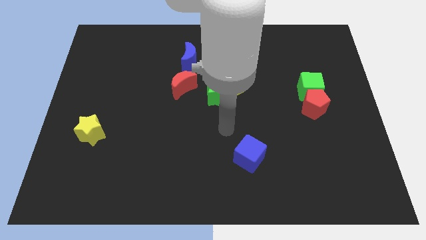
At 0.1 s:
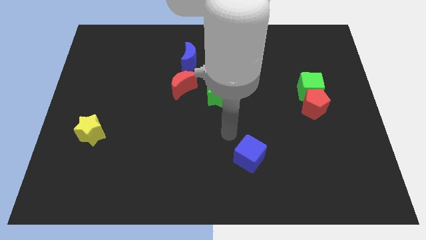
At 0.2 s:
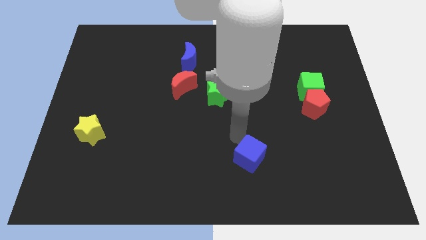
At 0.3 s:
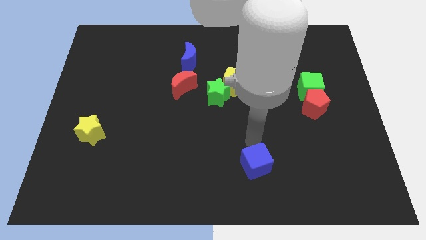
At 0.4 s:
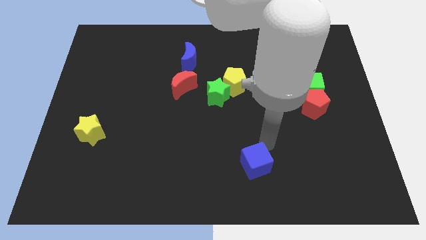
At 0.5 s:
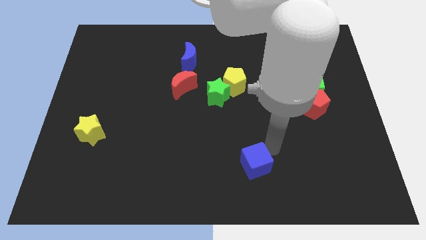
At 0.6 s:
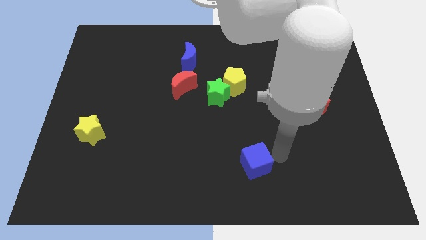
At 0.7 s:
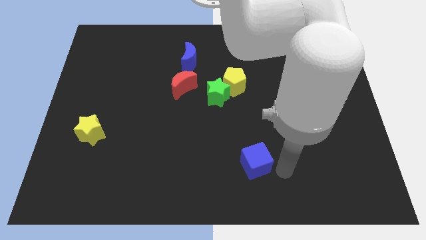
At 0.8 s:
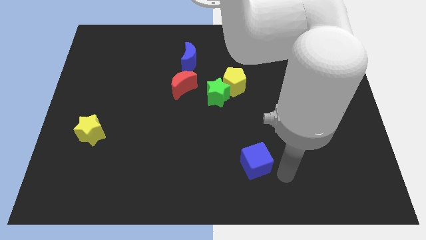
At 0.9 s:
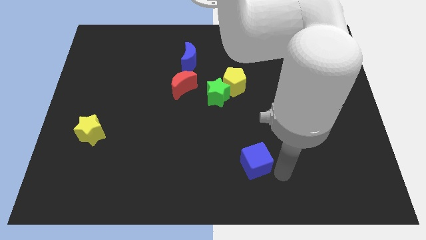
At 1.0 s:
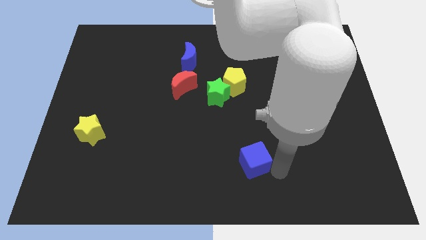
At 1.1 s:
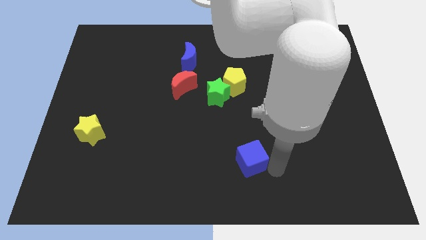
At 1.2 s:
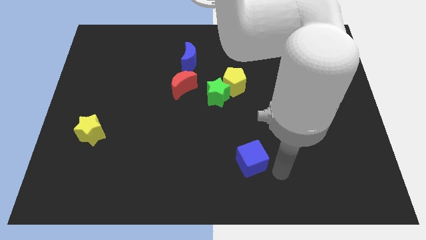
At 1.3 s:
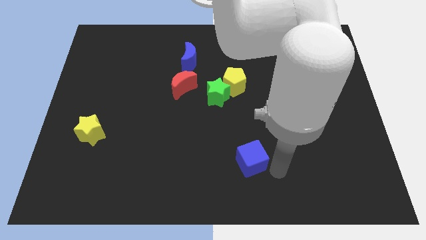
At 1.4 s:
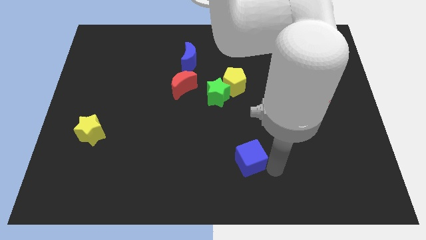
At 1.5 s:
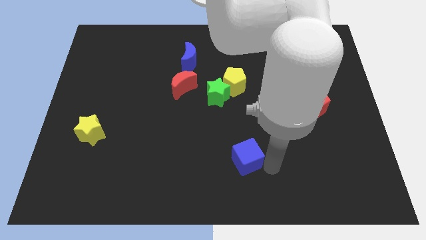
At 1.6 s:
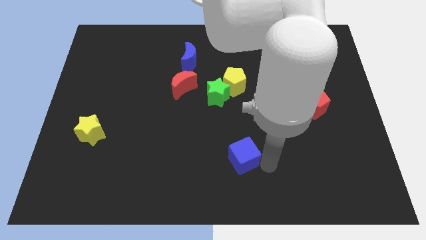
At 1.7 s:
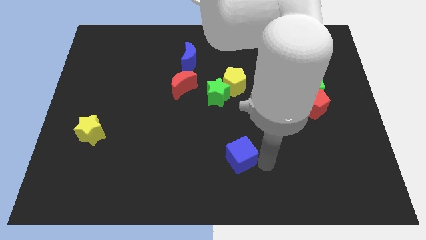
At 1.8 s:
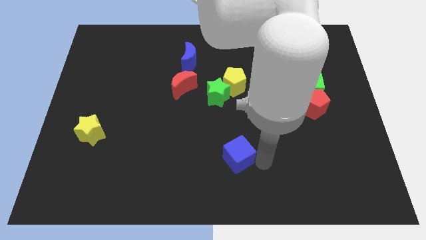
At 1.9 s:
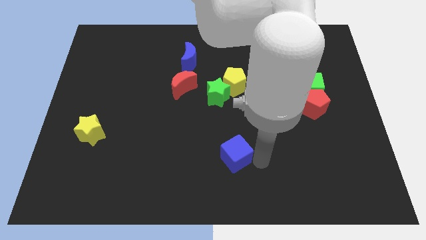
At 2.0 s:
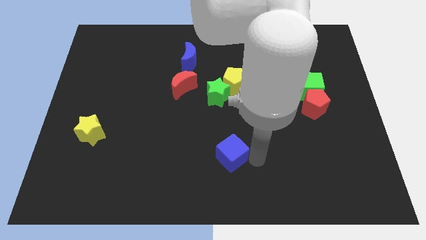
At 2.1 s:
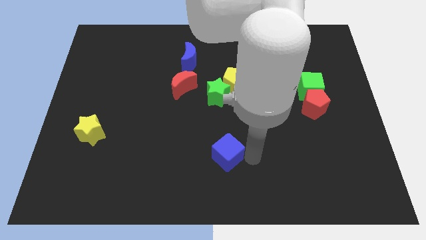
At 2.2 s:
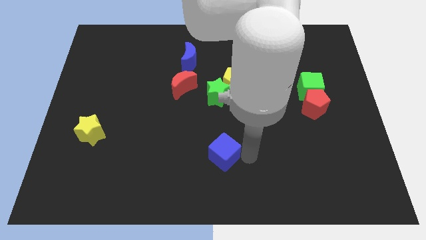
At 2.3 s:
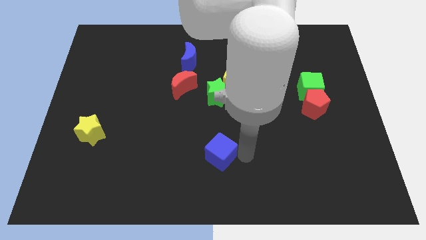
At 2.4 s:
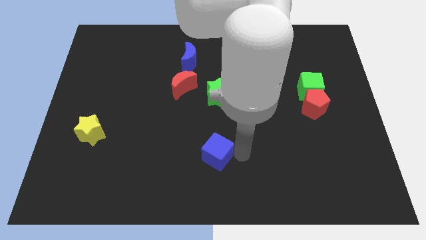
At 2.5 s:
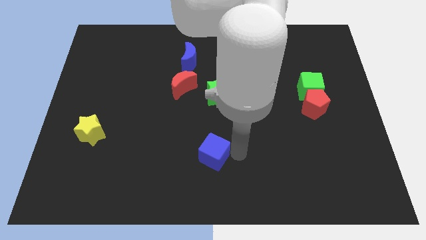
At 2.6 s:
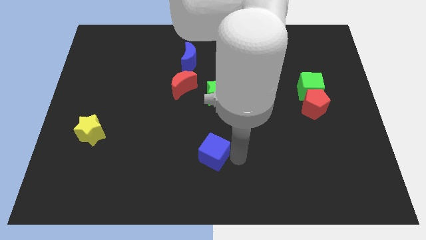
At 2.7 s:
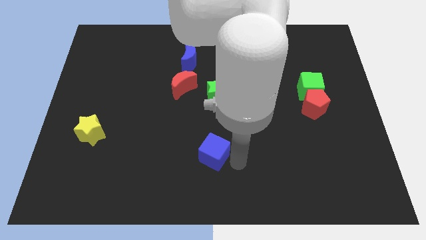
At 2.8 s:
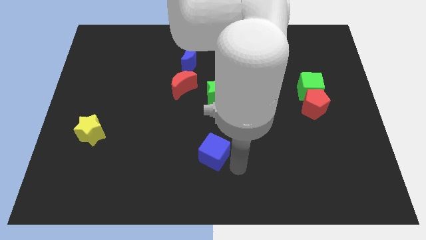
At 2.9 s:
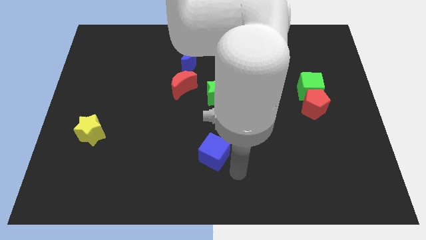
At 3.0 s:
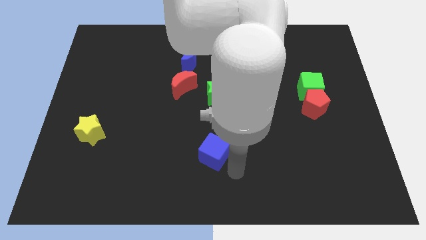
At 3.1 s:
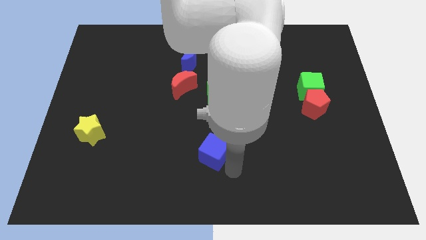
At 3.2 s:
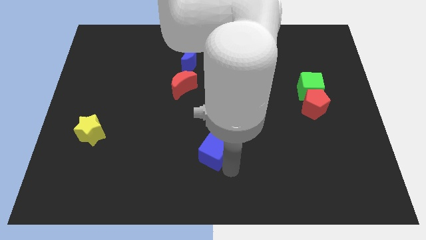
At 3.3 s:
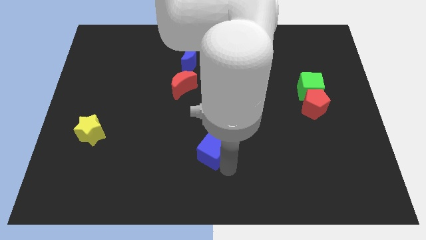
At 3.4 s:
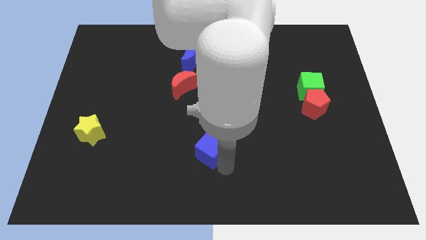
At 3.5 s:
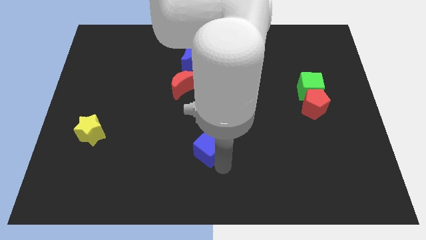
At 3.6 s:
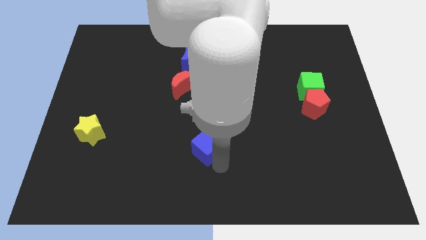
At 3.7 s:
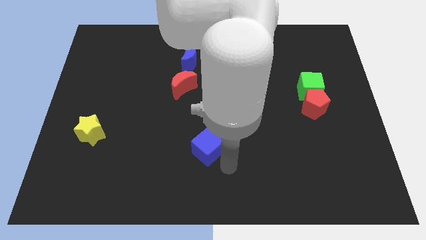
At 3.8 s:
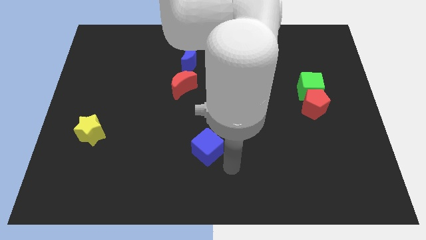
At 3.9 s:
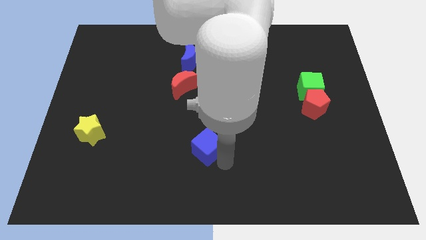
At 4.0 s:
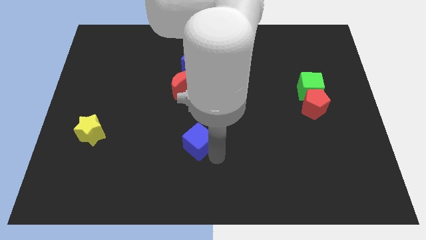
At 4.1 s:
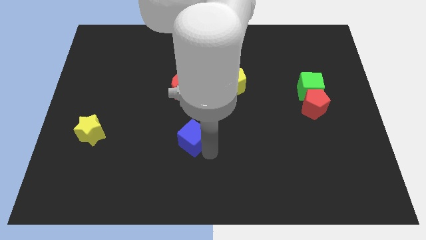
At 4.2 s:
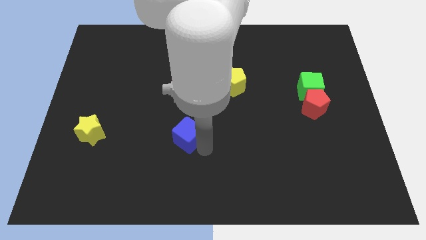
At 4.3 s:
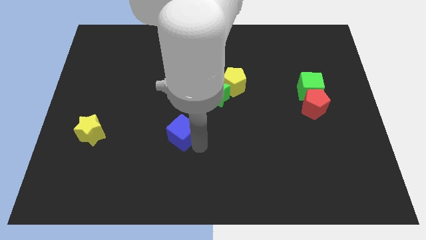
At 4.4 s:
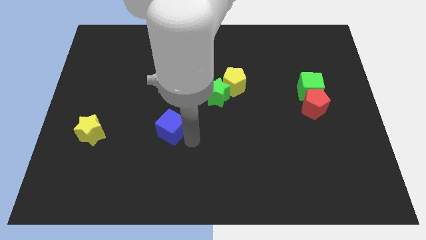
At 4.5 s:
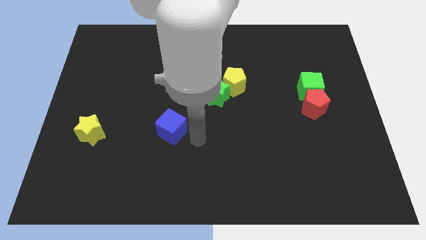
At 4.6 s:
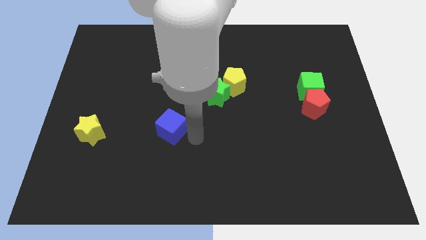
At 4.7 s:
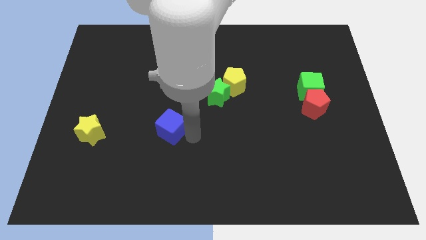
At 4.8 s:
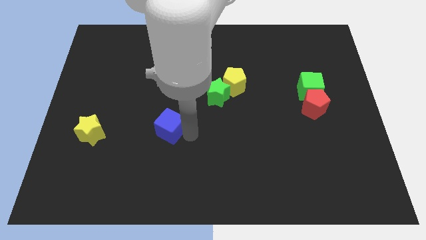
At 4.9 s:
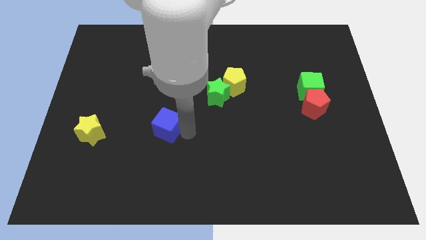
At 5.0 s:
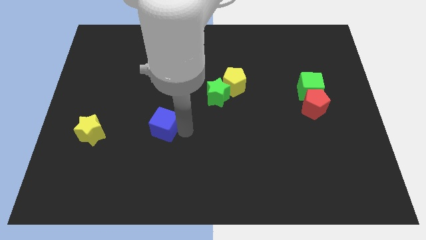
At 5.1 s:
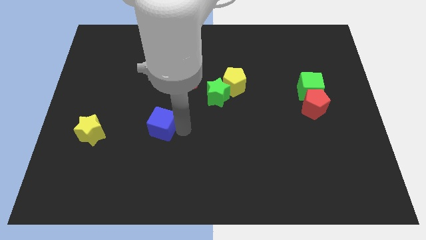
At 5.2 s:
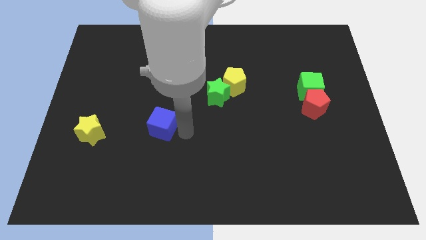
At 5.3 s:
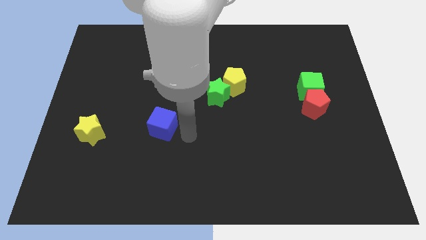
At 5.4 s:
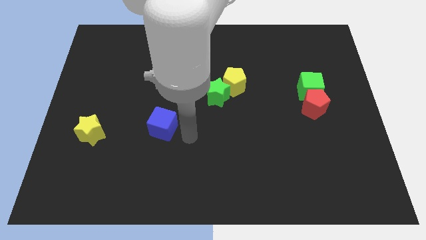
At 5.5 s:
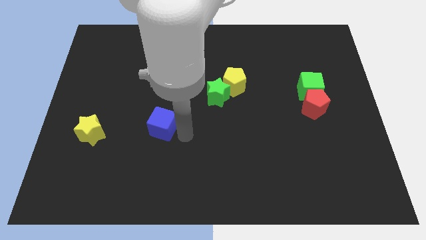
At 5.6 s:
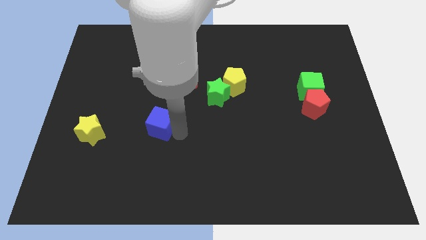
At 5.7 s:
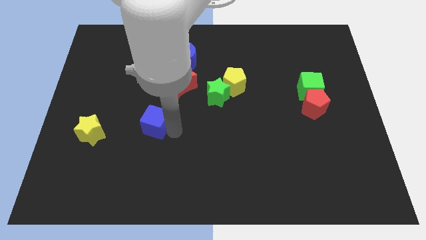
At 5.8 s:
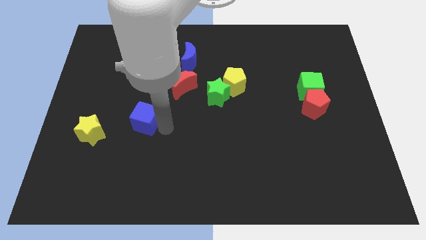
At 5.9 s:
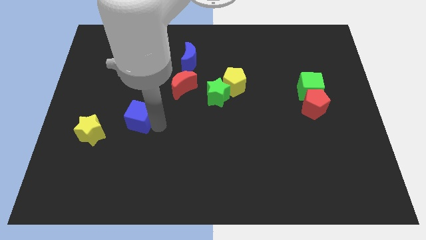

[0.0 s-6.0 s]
push the blue cube diagonally up and to the right of the yellow star

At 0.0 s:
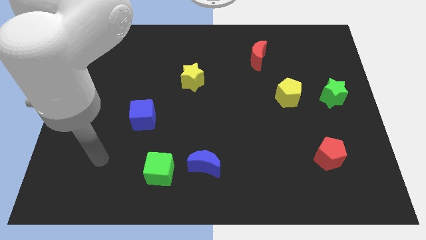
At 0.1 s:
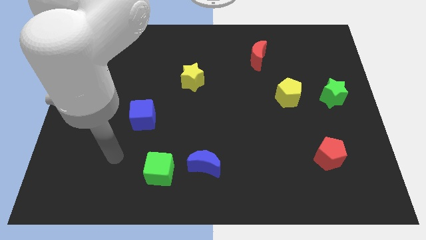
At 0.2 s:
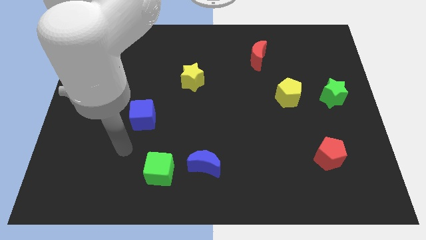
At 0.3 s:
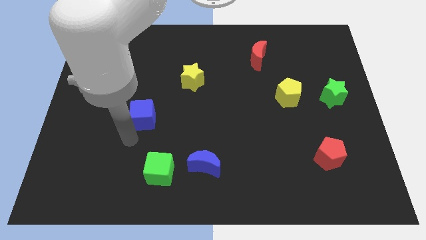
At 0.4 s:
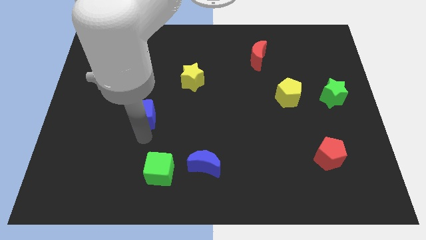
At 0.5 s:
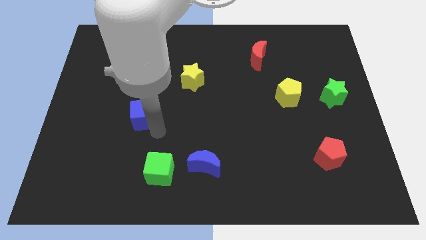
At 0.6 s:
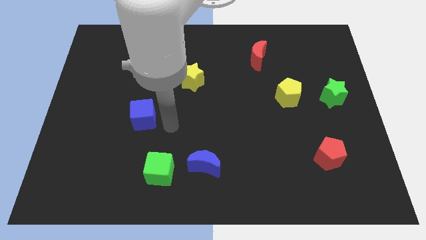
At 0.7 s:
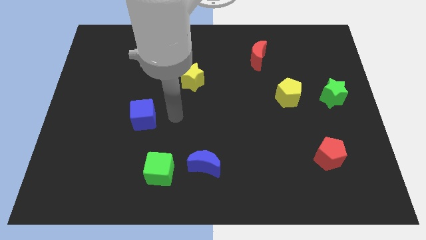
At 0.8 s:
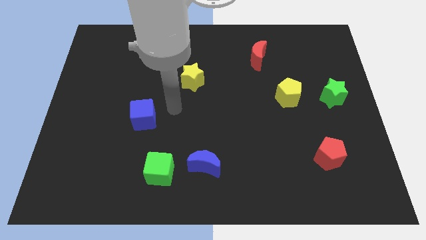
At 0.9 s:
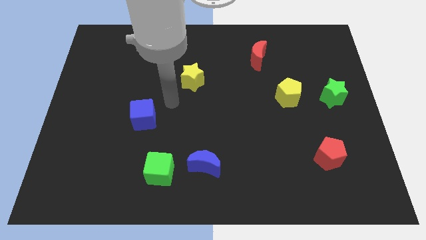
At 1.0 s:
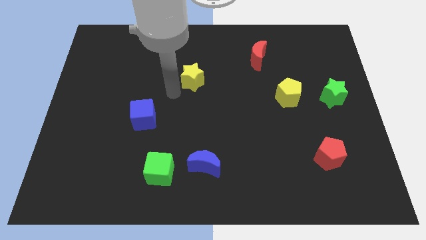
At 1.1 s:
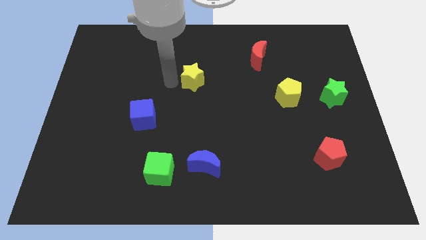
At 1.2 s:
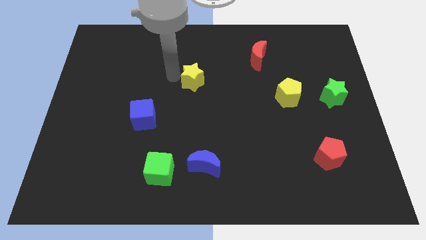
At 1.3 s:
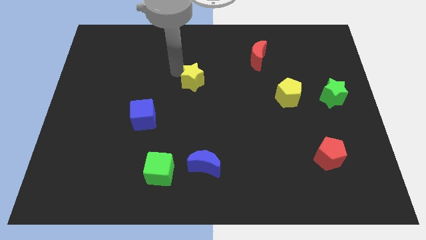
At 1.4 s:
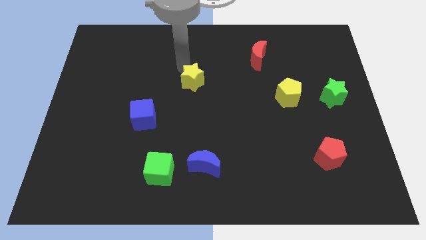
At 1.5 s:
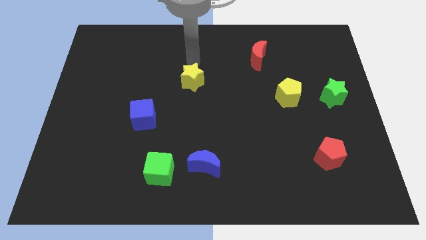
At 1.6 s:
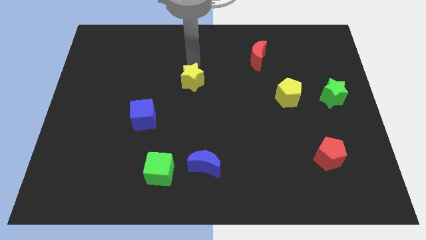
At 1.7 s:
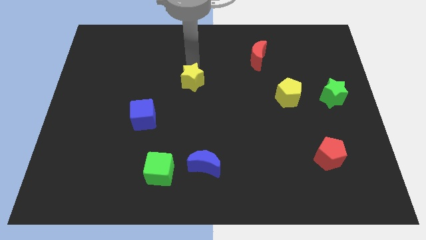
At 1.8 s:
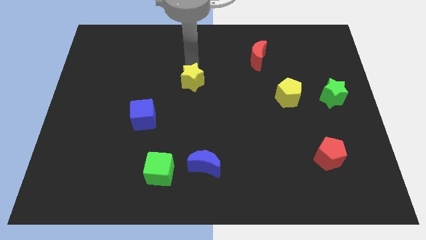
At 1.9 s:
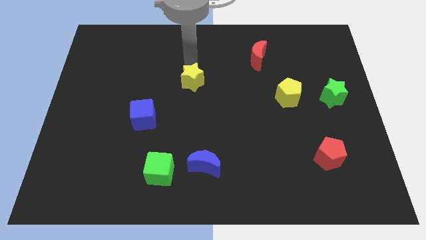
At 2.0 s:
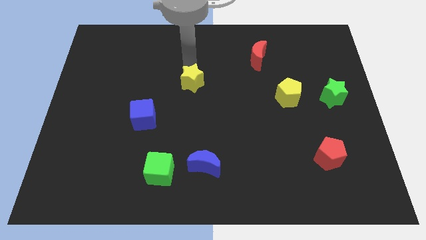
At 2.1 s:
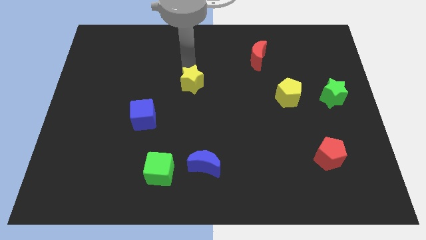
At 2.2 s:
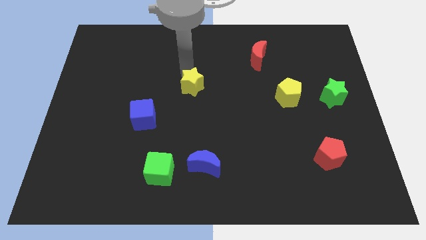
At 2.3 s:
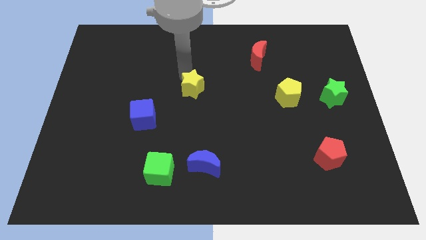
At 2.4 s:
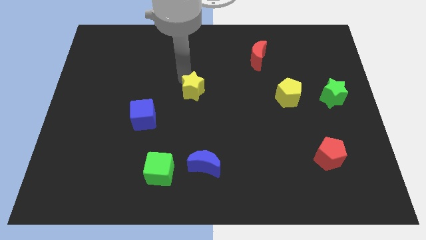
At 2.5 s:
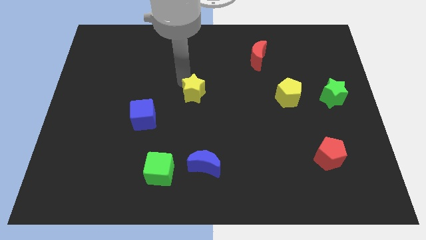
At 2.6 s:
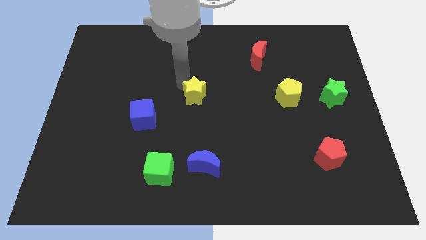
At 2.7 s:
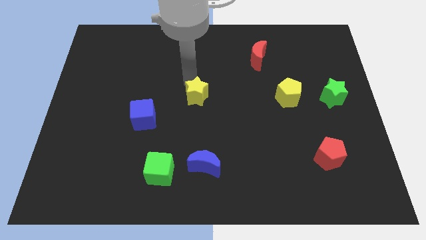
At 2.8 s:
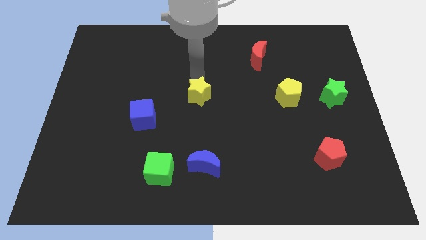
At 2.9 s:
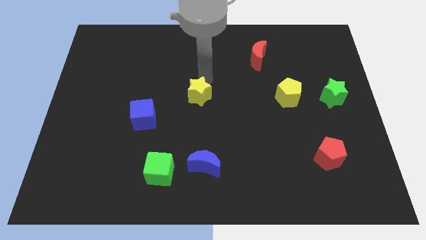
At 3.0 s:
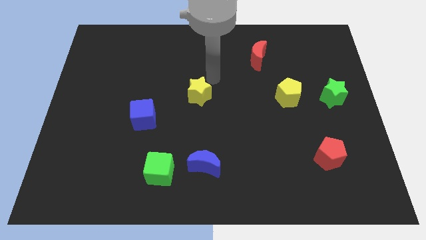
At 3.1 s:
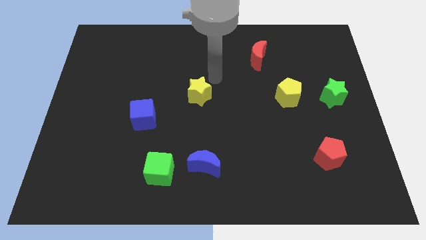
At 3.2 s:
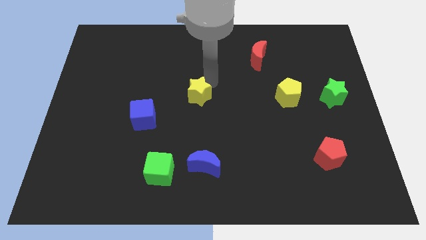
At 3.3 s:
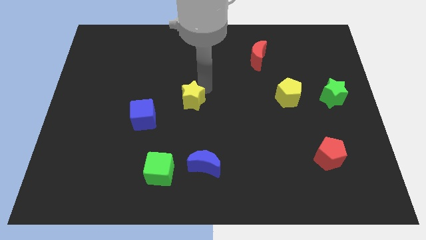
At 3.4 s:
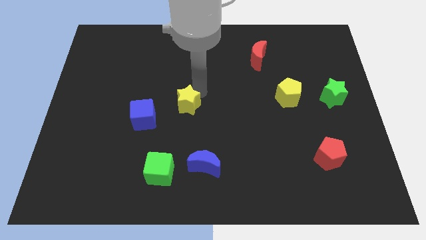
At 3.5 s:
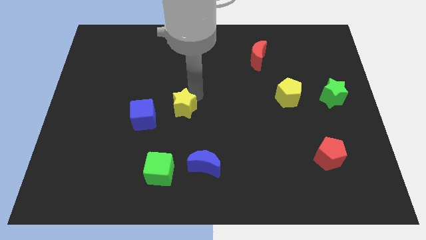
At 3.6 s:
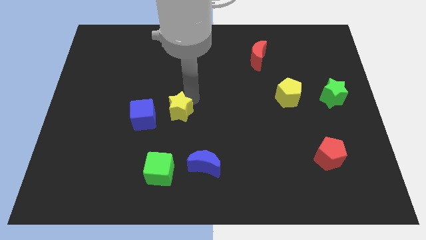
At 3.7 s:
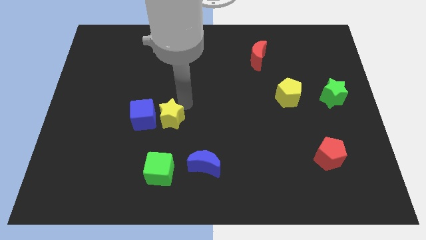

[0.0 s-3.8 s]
push the yellow star to the bottom right of the blue cube
